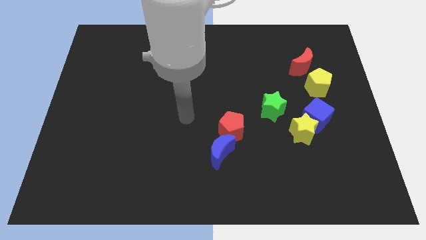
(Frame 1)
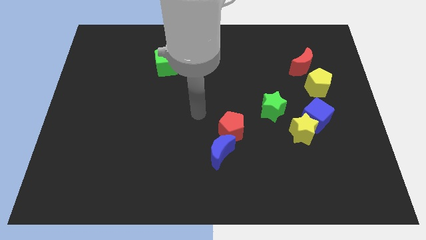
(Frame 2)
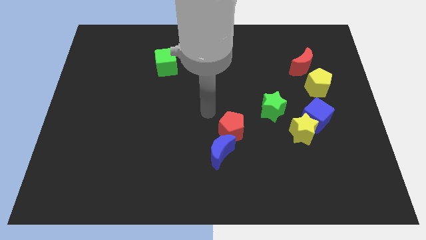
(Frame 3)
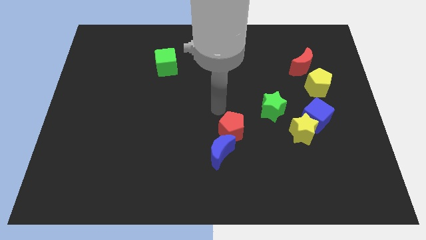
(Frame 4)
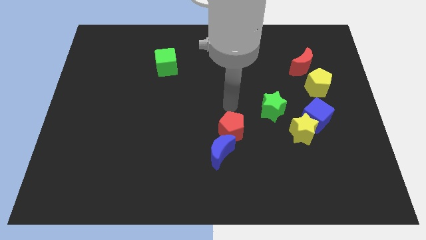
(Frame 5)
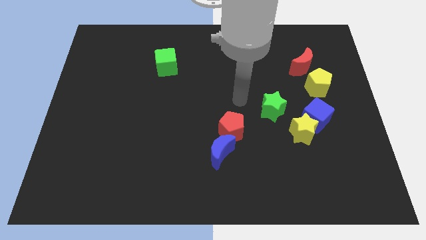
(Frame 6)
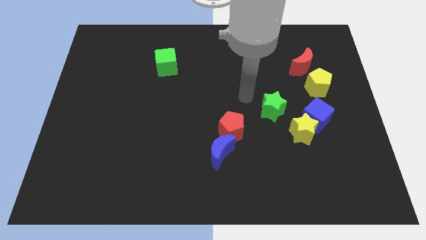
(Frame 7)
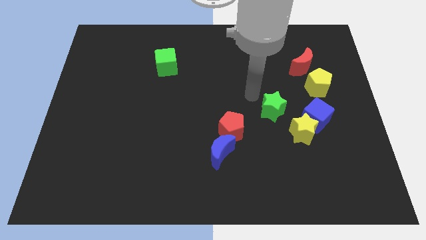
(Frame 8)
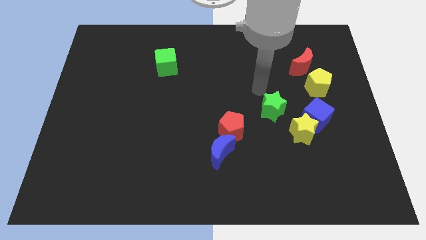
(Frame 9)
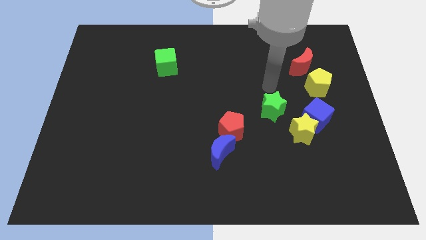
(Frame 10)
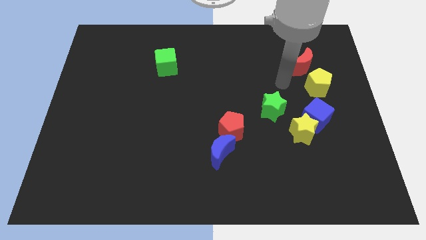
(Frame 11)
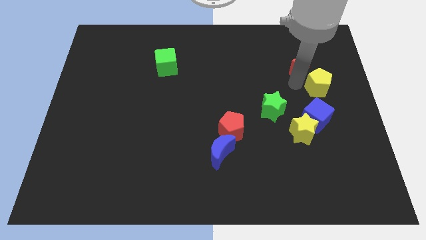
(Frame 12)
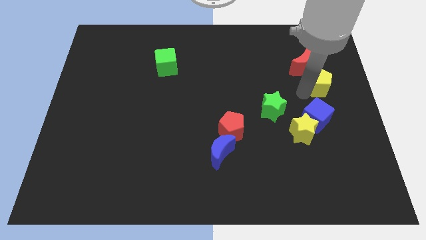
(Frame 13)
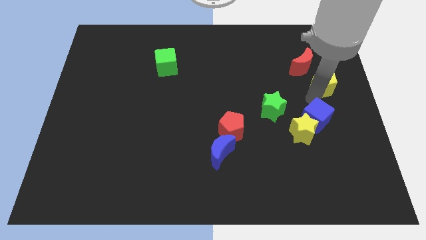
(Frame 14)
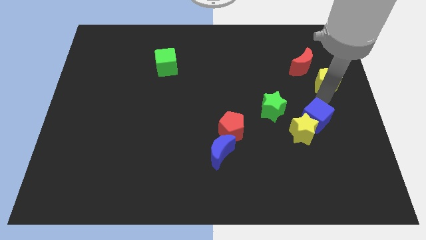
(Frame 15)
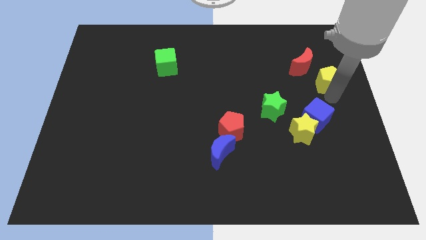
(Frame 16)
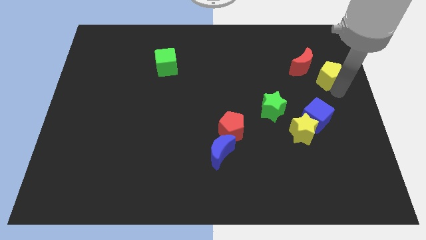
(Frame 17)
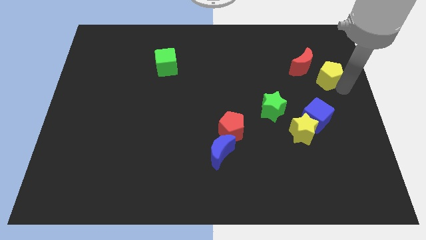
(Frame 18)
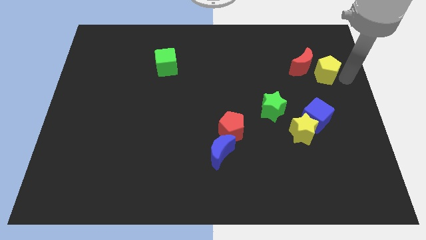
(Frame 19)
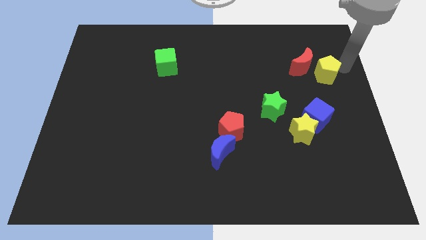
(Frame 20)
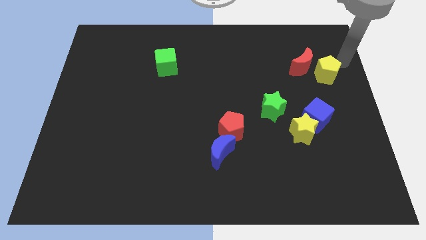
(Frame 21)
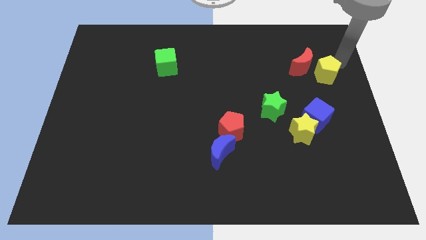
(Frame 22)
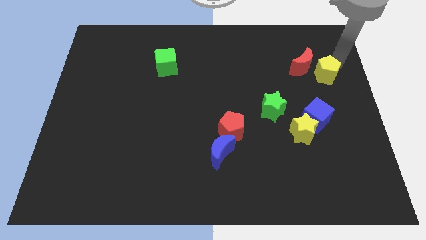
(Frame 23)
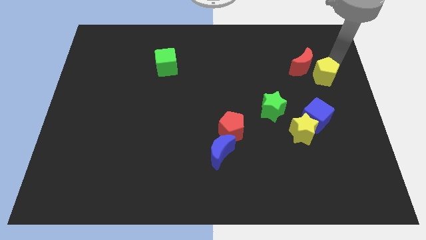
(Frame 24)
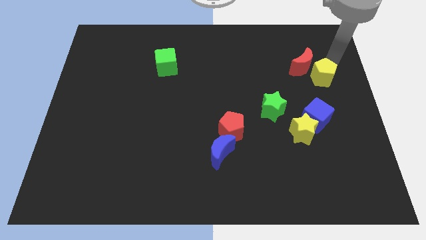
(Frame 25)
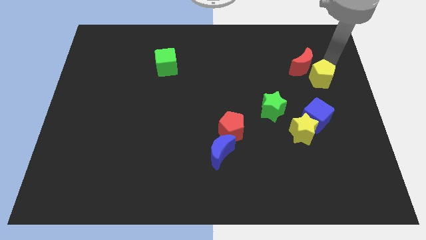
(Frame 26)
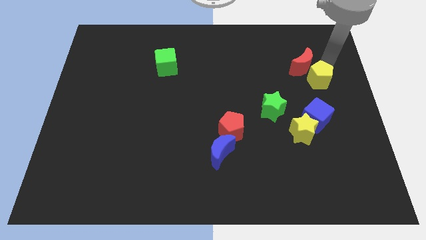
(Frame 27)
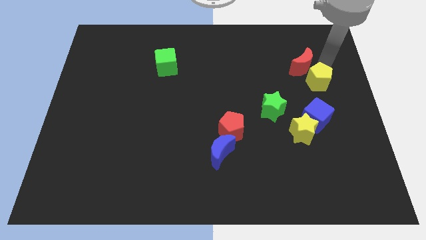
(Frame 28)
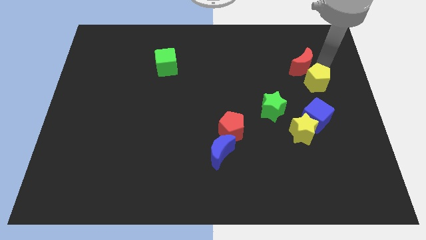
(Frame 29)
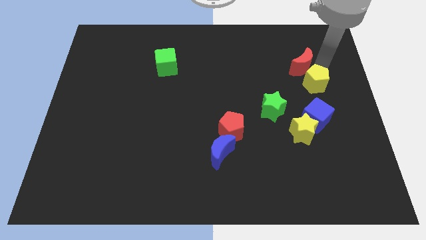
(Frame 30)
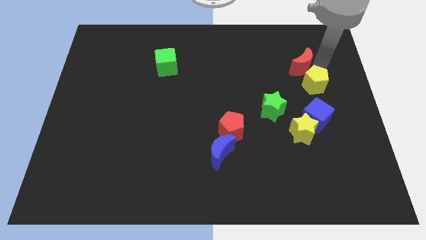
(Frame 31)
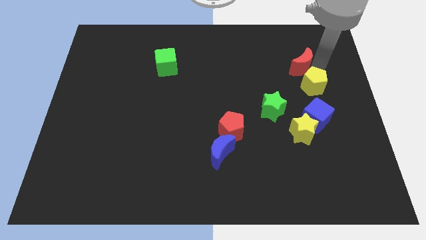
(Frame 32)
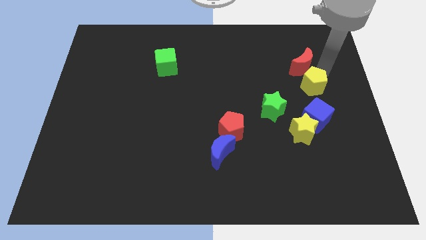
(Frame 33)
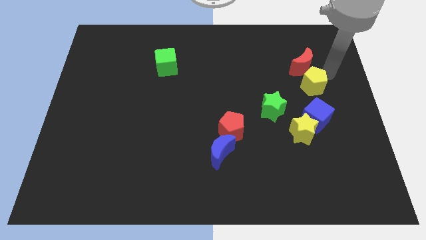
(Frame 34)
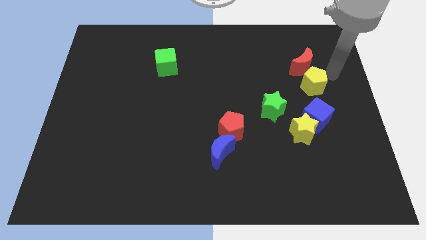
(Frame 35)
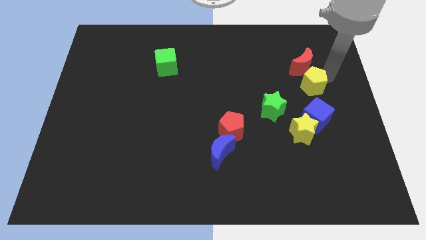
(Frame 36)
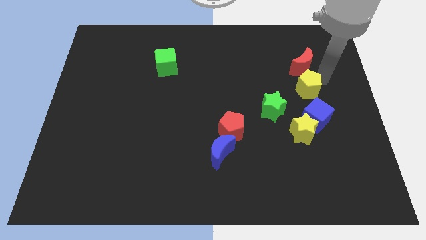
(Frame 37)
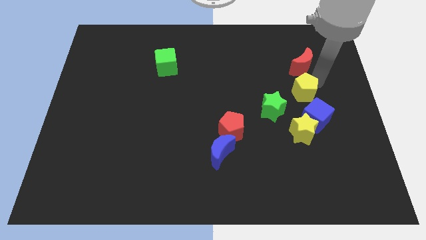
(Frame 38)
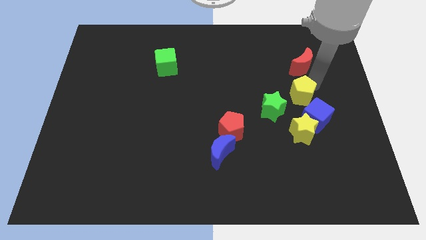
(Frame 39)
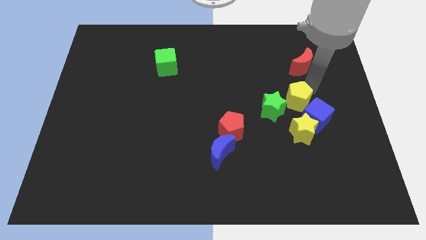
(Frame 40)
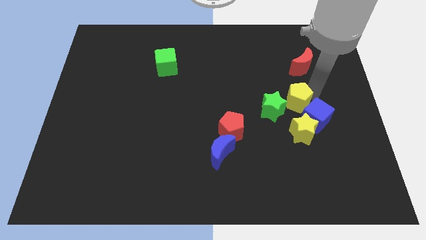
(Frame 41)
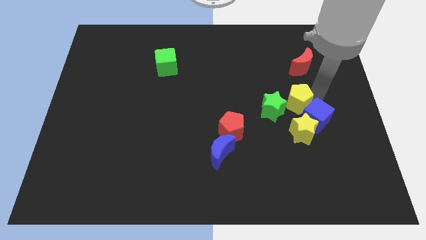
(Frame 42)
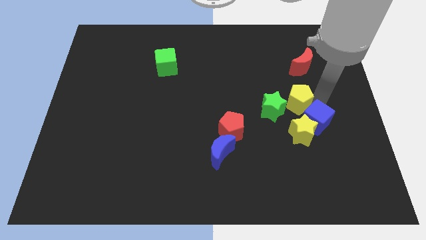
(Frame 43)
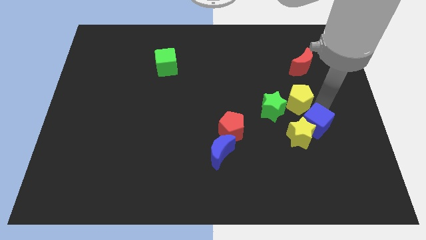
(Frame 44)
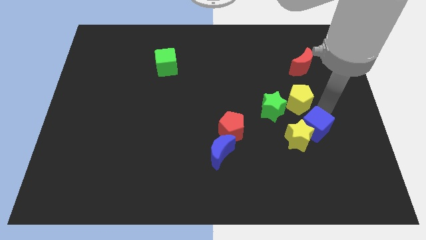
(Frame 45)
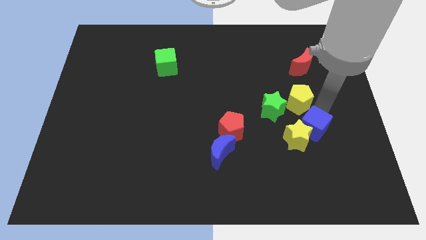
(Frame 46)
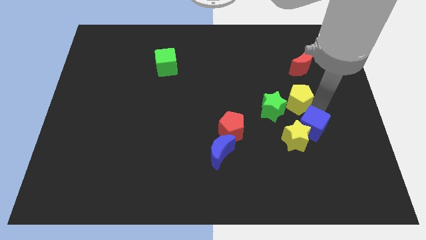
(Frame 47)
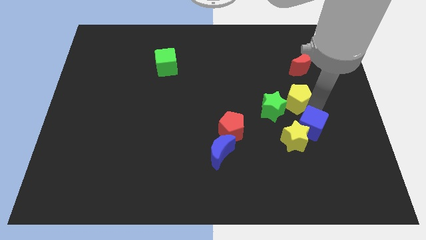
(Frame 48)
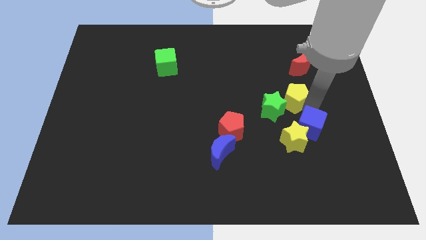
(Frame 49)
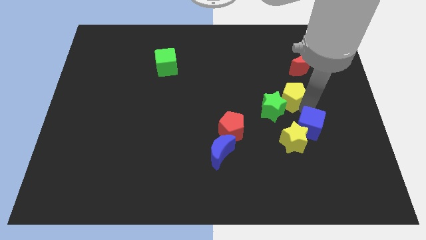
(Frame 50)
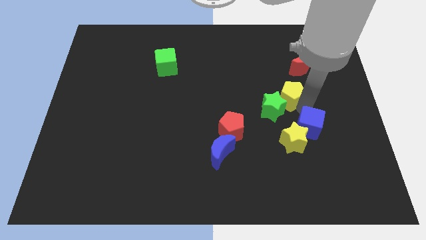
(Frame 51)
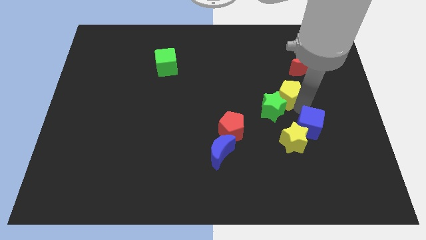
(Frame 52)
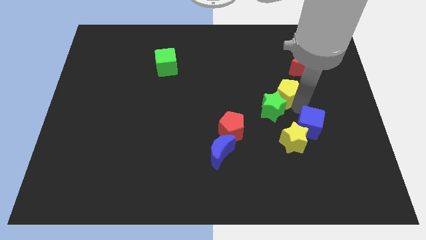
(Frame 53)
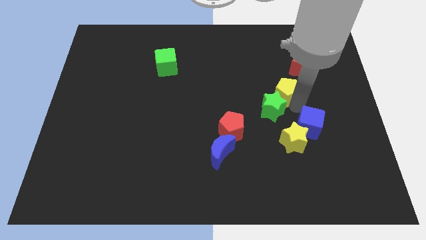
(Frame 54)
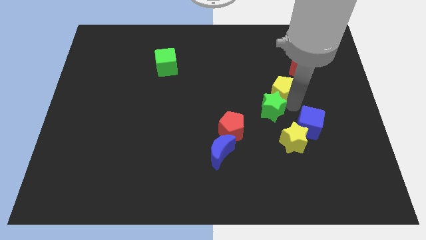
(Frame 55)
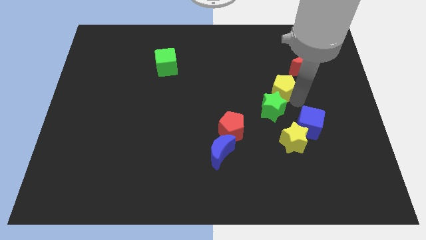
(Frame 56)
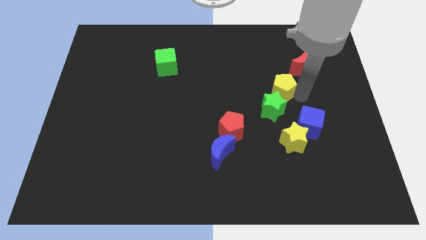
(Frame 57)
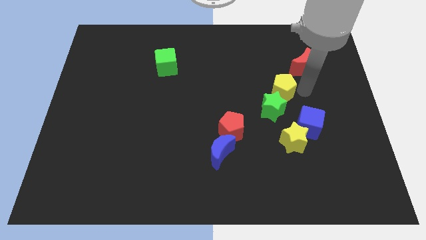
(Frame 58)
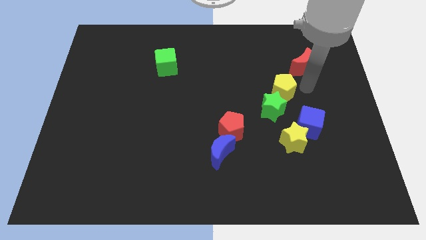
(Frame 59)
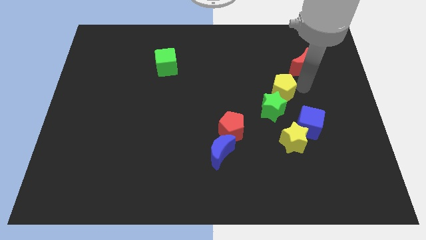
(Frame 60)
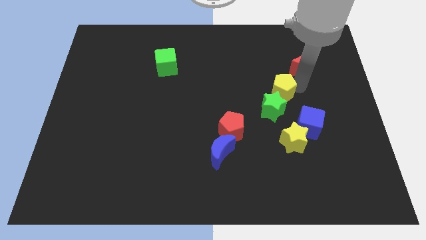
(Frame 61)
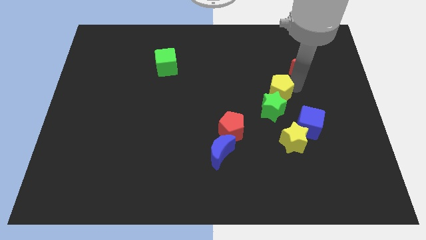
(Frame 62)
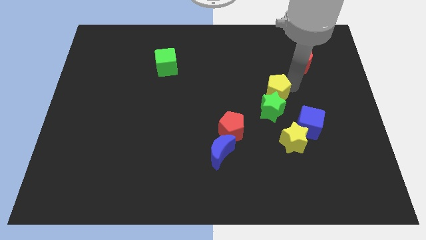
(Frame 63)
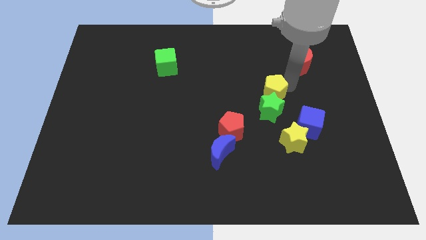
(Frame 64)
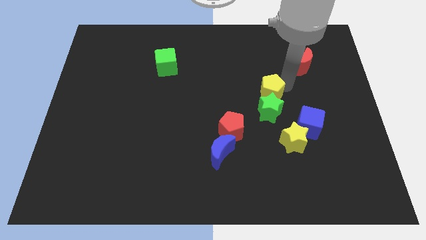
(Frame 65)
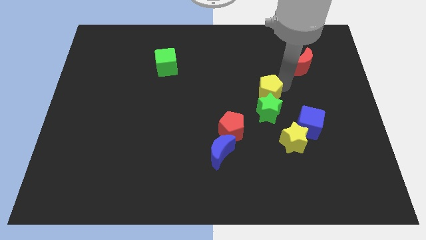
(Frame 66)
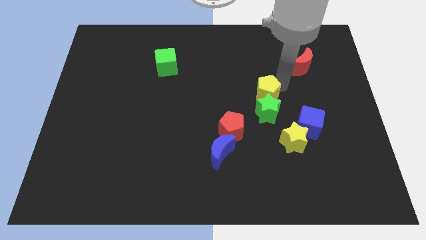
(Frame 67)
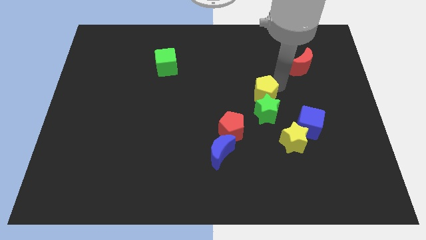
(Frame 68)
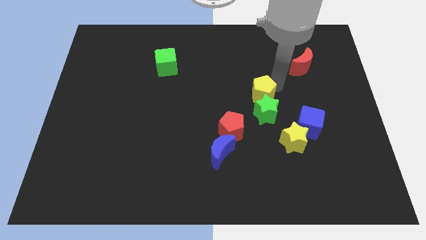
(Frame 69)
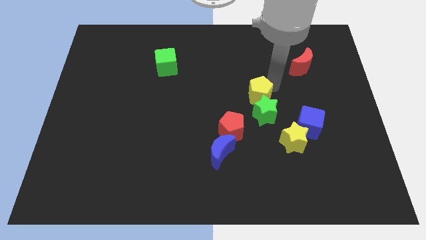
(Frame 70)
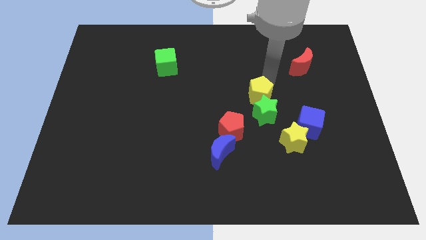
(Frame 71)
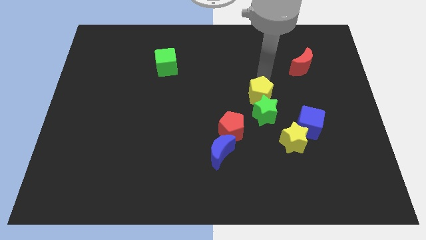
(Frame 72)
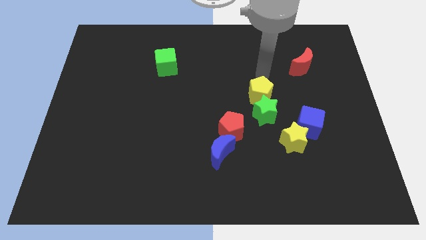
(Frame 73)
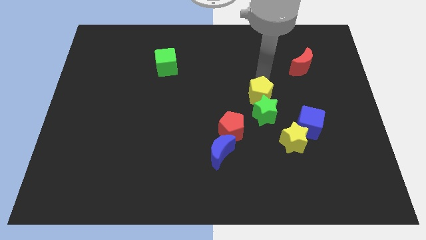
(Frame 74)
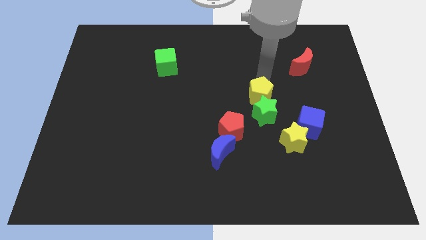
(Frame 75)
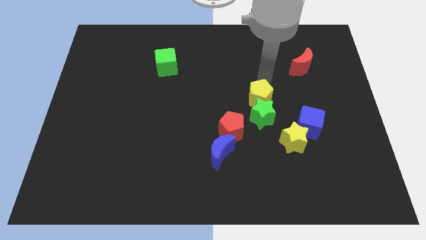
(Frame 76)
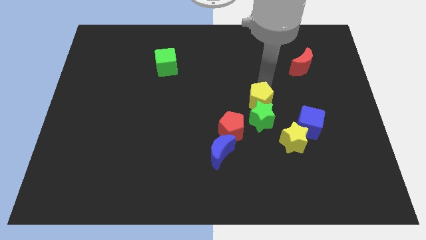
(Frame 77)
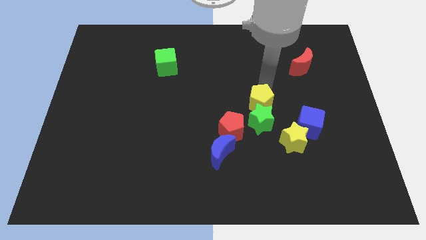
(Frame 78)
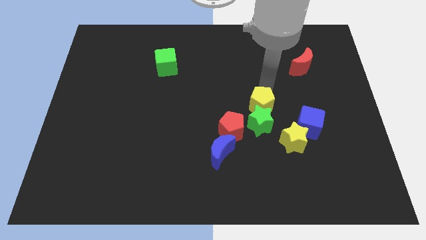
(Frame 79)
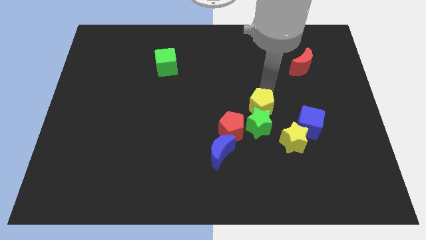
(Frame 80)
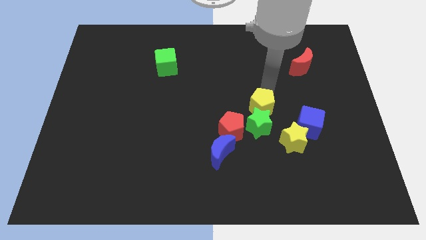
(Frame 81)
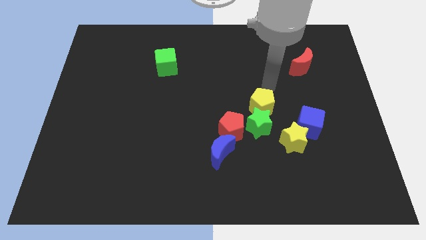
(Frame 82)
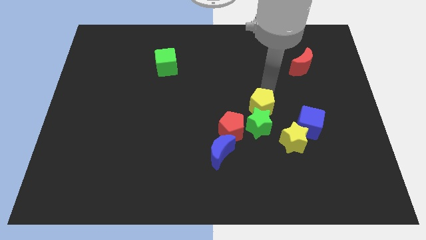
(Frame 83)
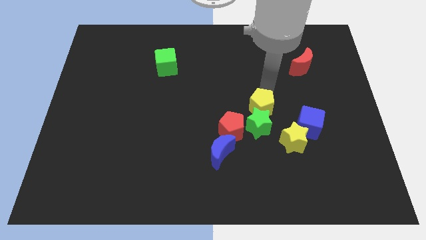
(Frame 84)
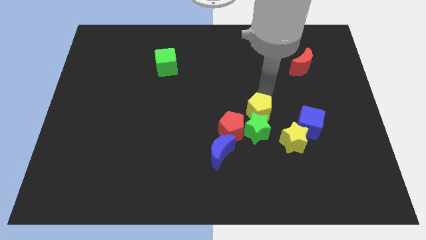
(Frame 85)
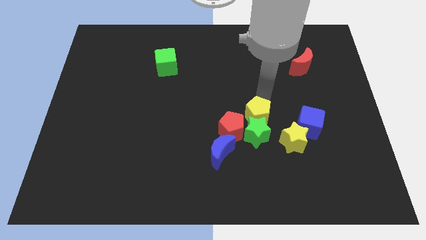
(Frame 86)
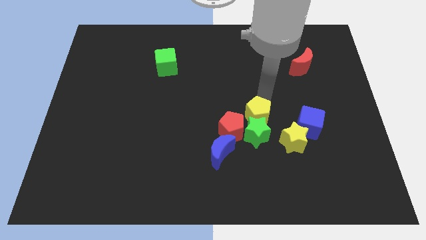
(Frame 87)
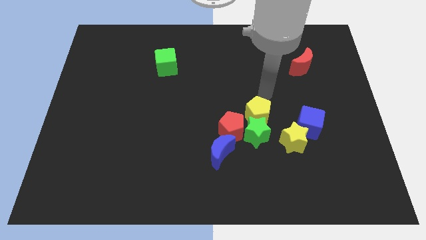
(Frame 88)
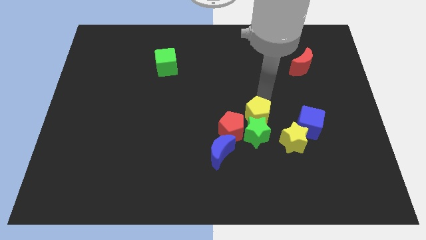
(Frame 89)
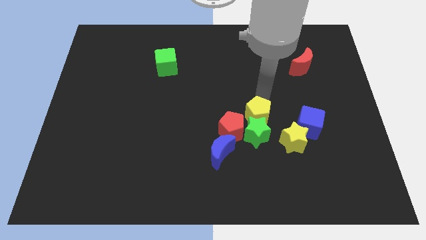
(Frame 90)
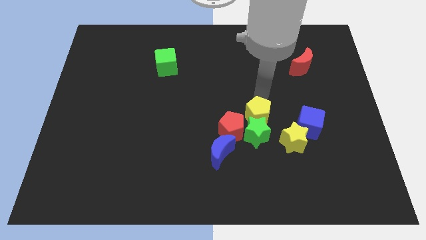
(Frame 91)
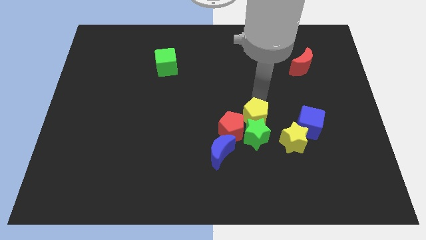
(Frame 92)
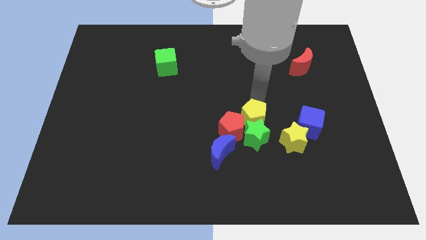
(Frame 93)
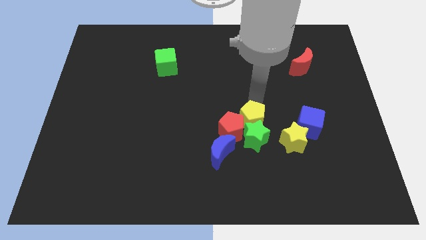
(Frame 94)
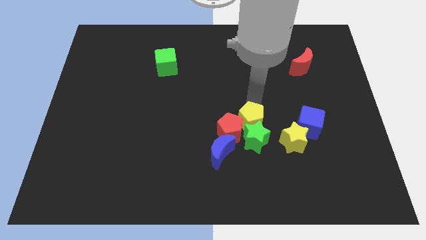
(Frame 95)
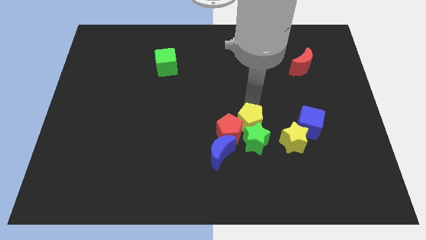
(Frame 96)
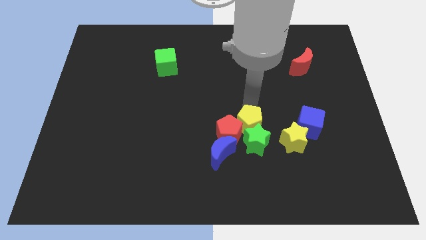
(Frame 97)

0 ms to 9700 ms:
move the yellow pentagon down and left
